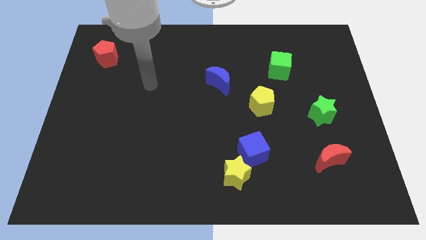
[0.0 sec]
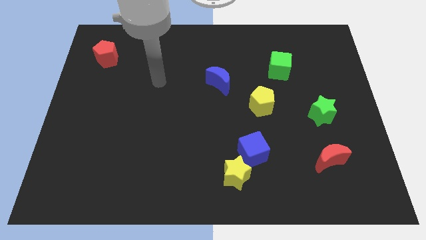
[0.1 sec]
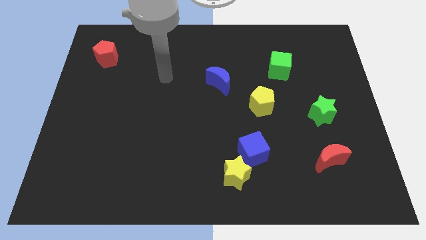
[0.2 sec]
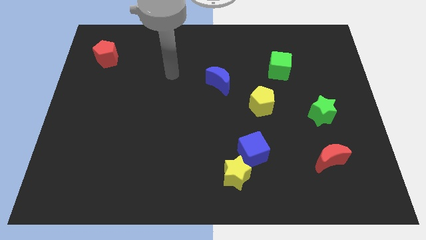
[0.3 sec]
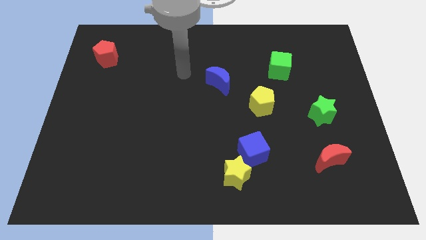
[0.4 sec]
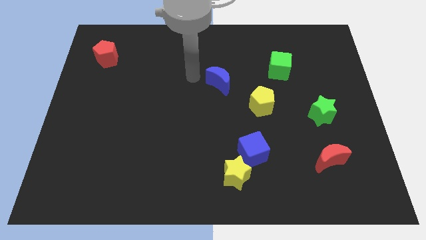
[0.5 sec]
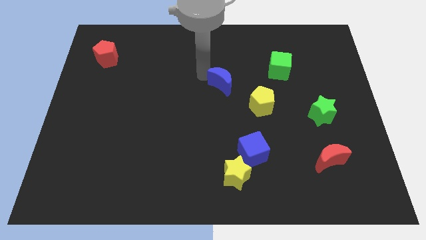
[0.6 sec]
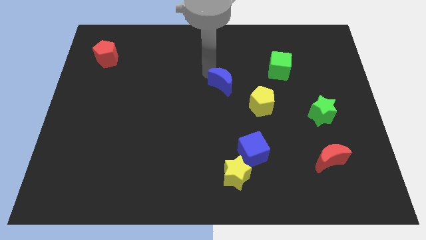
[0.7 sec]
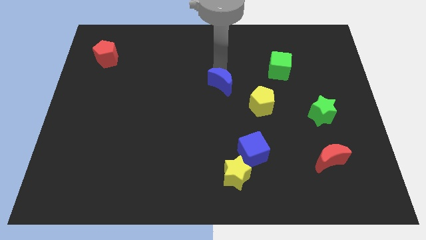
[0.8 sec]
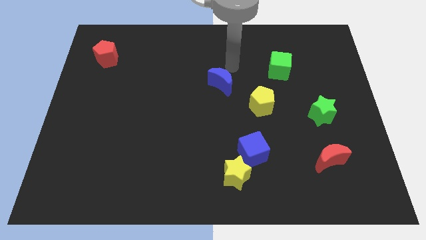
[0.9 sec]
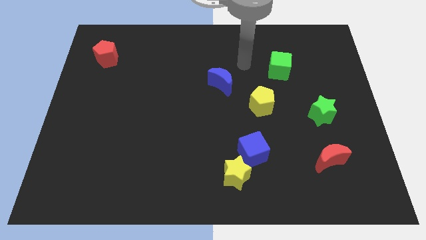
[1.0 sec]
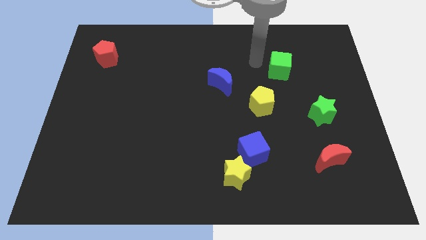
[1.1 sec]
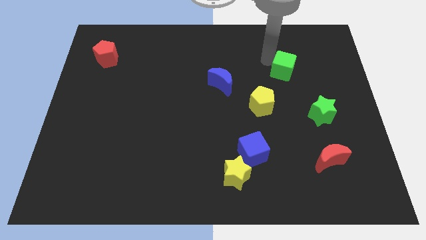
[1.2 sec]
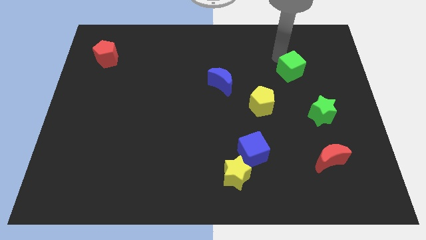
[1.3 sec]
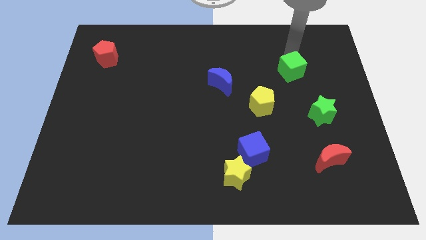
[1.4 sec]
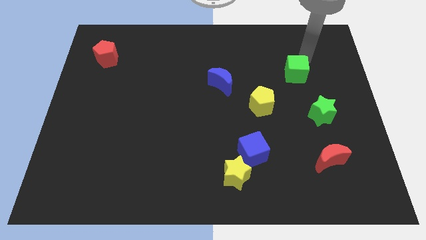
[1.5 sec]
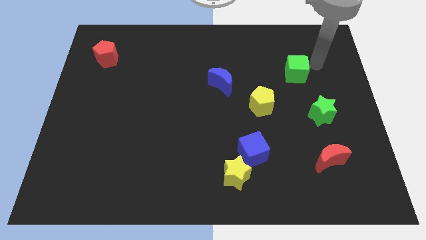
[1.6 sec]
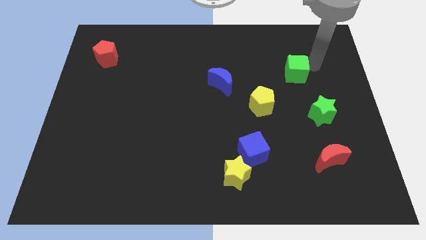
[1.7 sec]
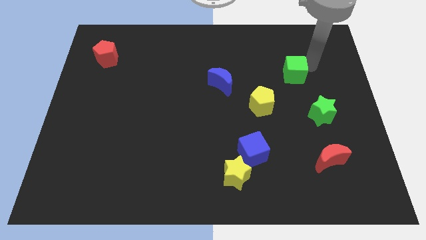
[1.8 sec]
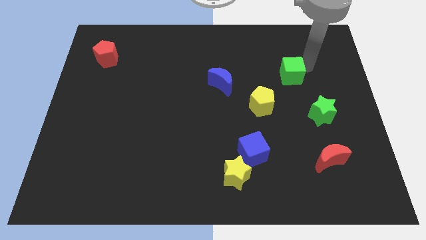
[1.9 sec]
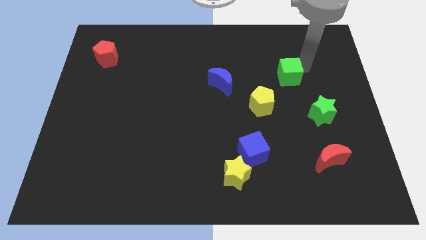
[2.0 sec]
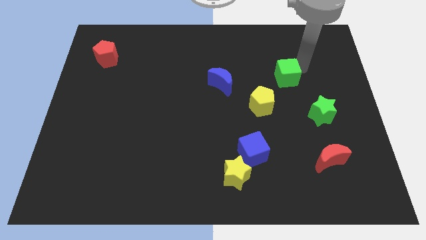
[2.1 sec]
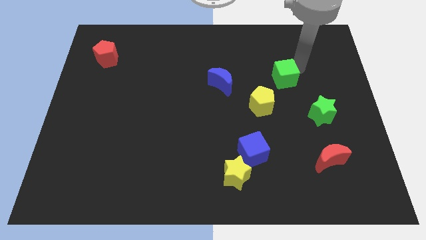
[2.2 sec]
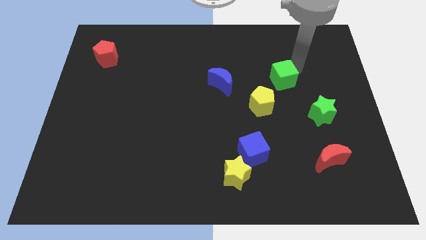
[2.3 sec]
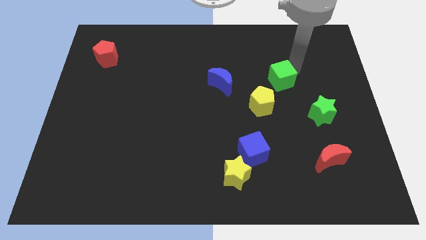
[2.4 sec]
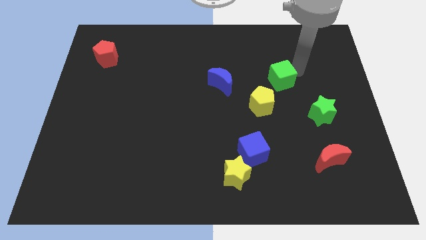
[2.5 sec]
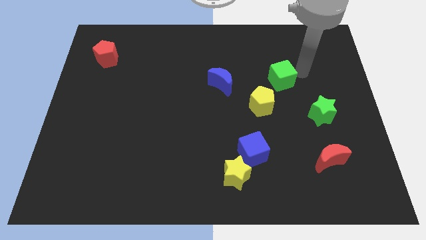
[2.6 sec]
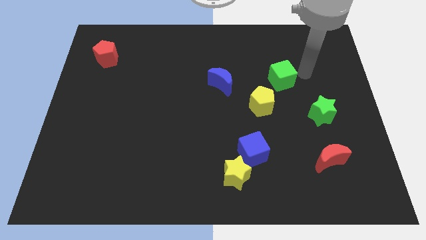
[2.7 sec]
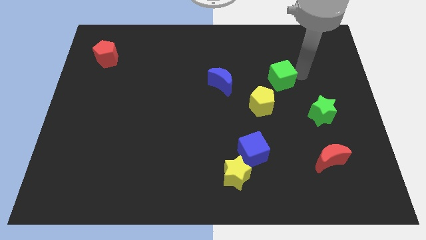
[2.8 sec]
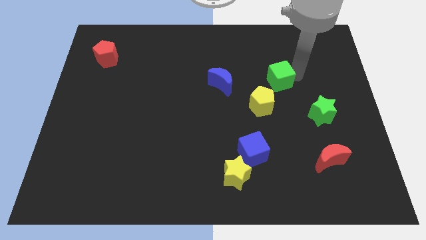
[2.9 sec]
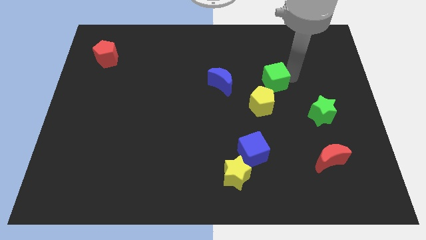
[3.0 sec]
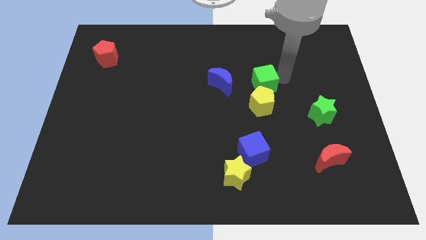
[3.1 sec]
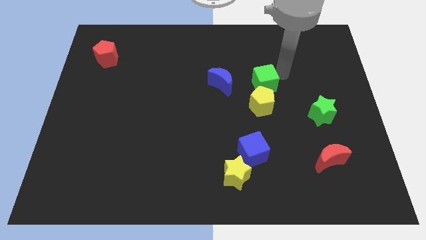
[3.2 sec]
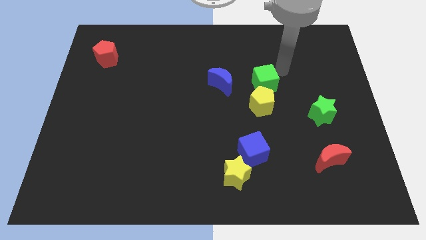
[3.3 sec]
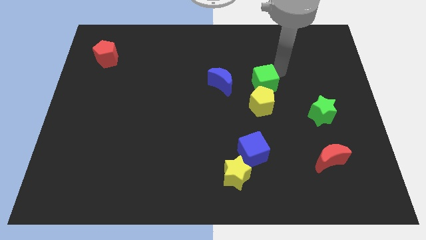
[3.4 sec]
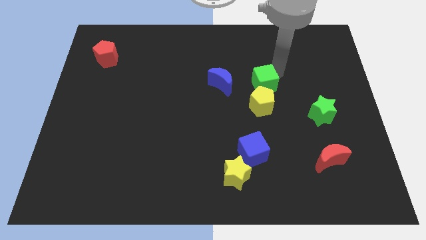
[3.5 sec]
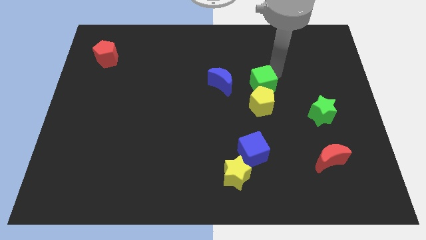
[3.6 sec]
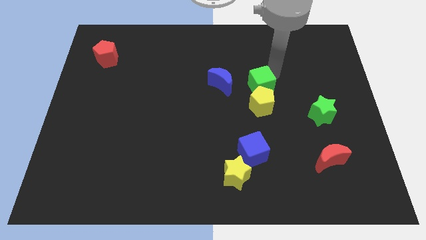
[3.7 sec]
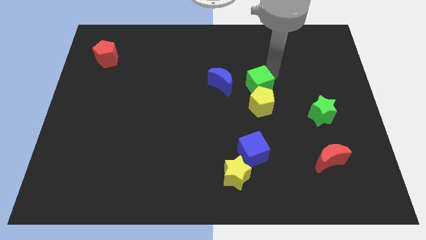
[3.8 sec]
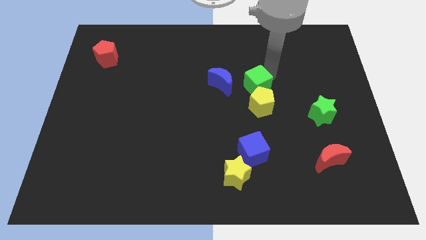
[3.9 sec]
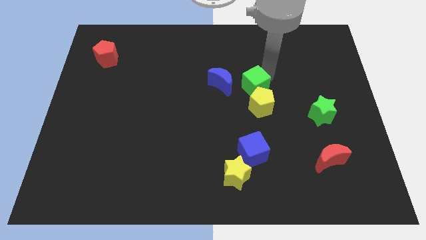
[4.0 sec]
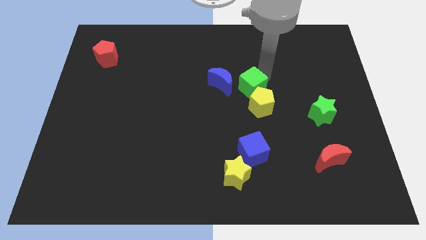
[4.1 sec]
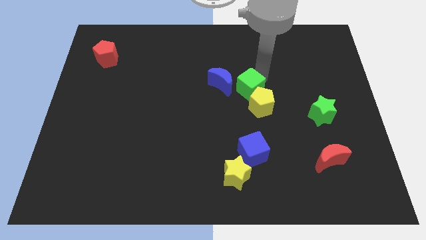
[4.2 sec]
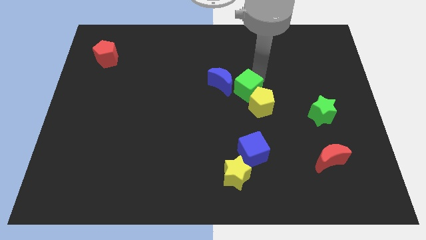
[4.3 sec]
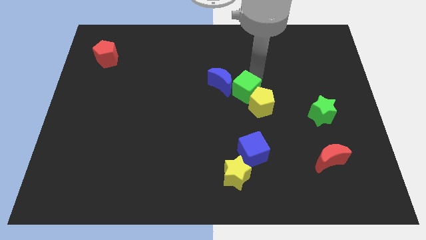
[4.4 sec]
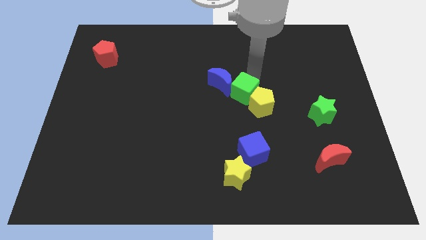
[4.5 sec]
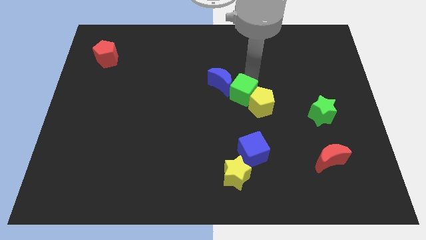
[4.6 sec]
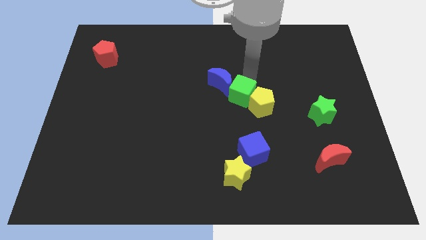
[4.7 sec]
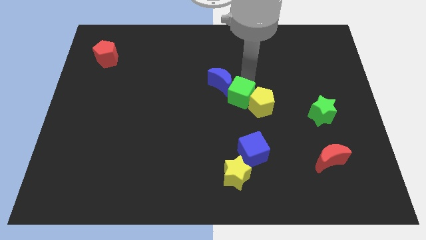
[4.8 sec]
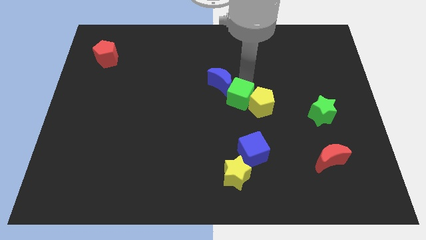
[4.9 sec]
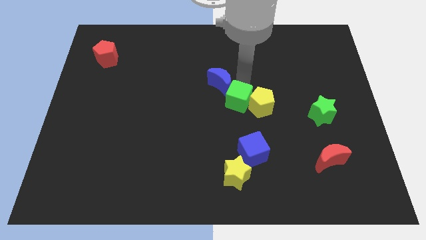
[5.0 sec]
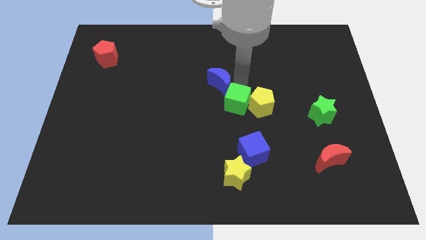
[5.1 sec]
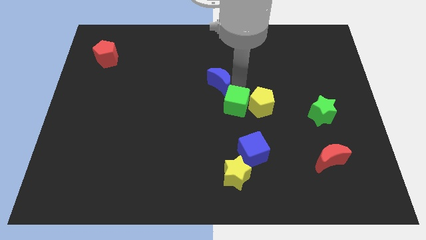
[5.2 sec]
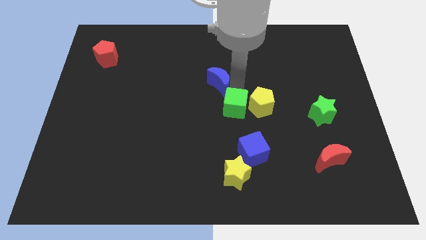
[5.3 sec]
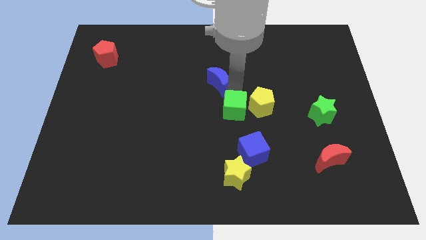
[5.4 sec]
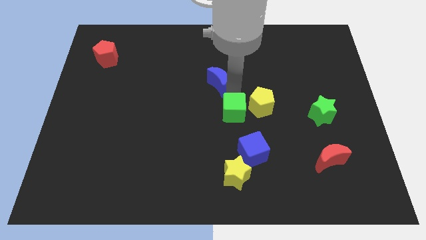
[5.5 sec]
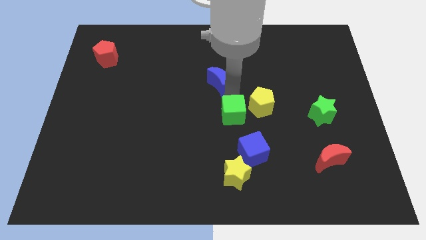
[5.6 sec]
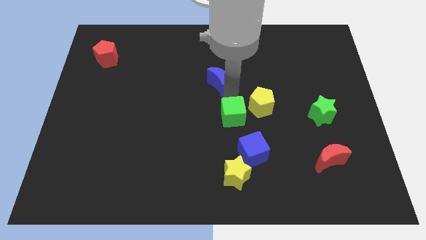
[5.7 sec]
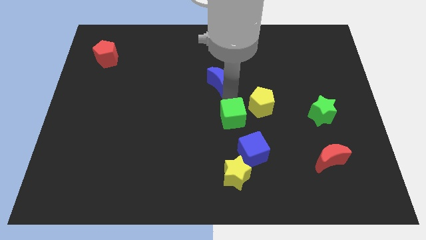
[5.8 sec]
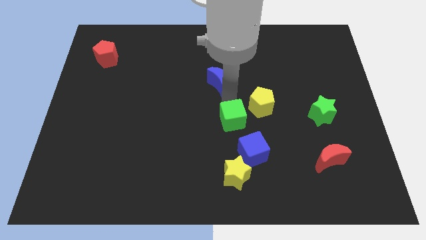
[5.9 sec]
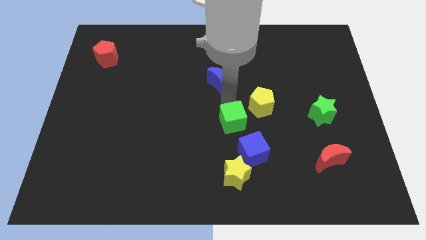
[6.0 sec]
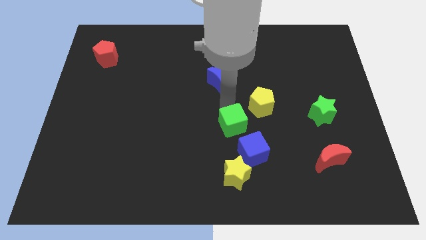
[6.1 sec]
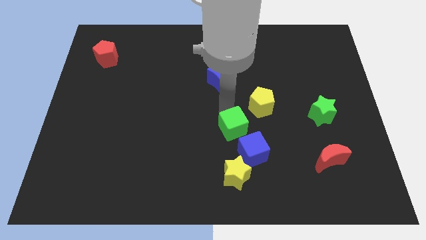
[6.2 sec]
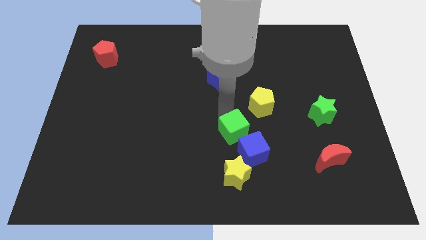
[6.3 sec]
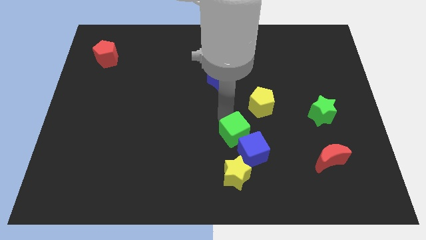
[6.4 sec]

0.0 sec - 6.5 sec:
move the green cube to the blue cube

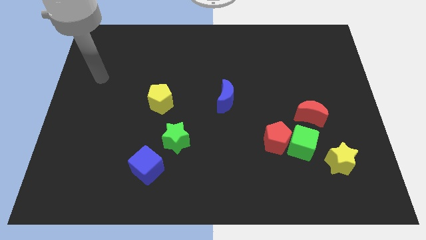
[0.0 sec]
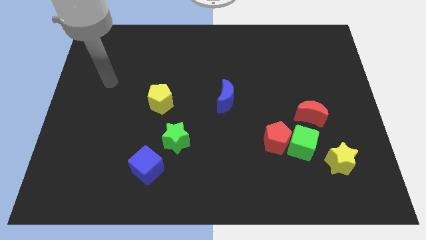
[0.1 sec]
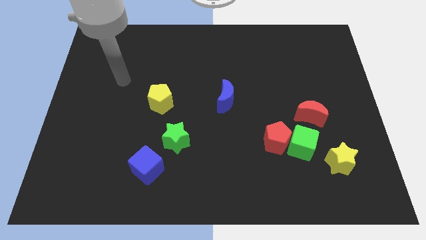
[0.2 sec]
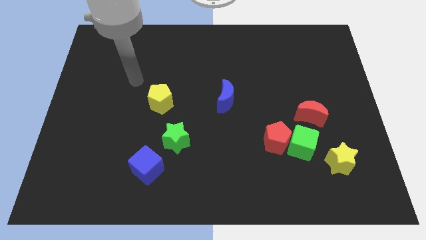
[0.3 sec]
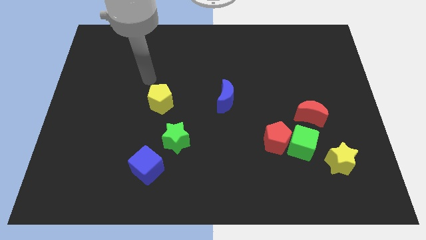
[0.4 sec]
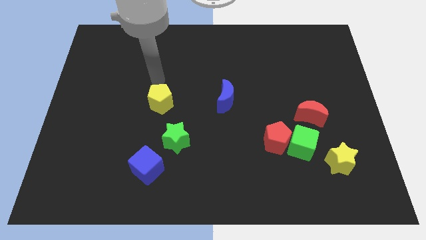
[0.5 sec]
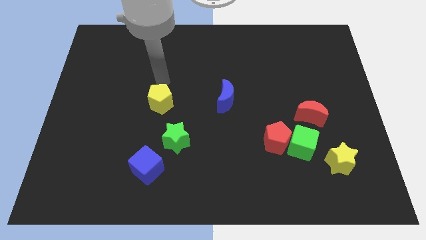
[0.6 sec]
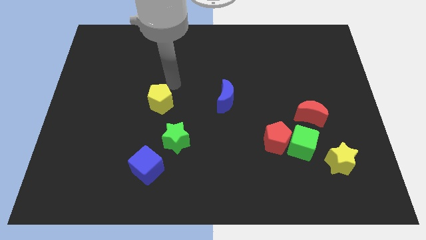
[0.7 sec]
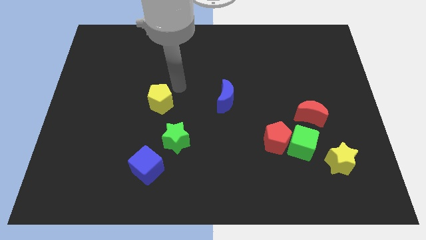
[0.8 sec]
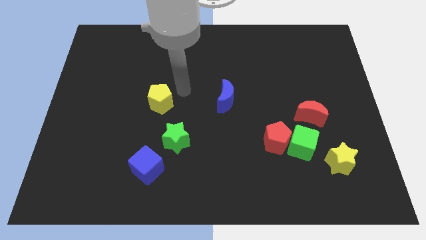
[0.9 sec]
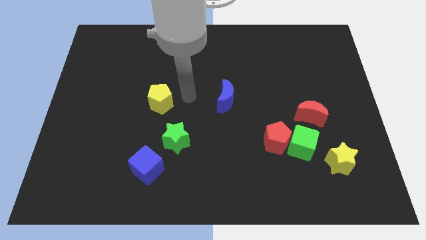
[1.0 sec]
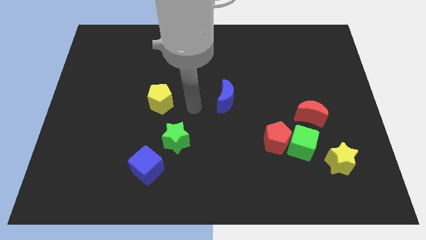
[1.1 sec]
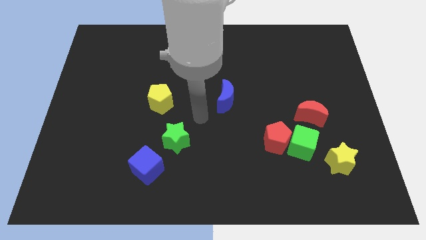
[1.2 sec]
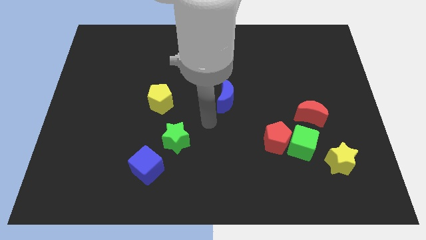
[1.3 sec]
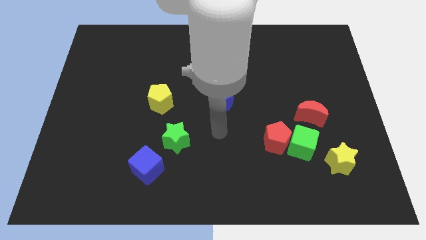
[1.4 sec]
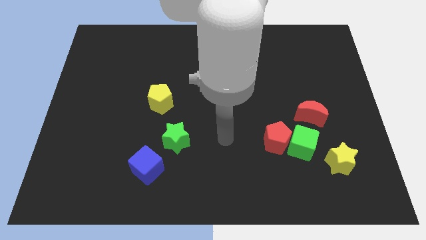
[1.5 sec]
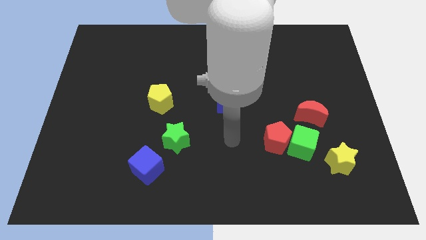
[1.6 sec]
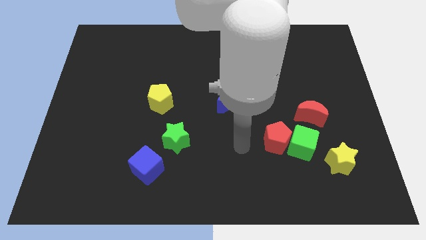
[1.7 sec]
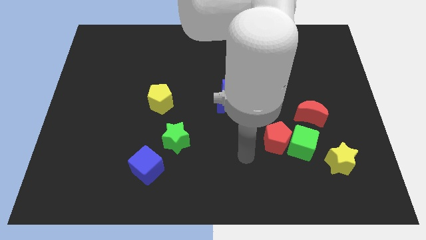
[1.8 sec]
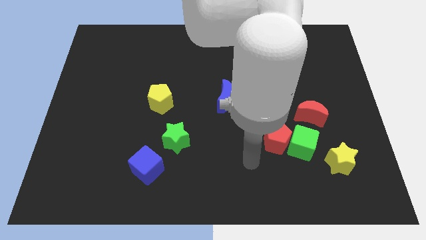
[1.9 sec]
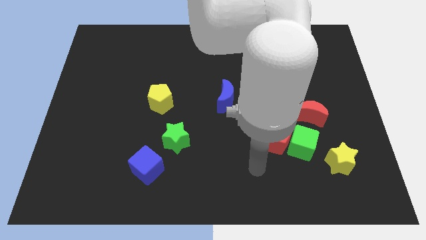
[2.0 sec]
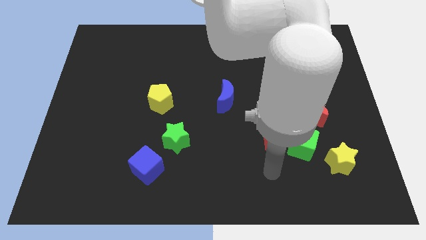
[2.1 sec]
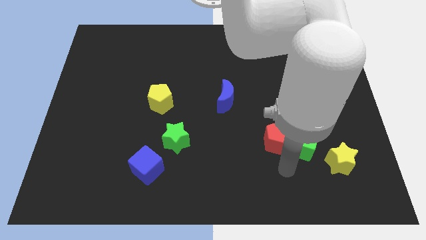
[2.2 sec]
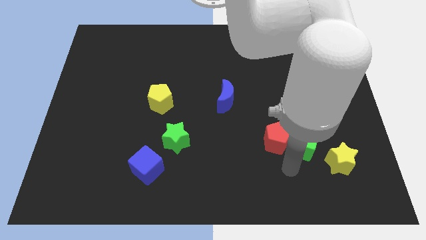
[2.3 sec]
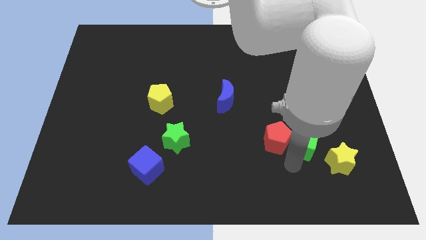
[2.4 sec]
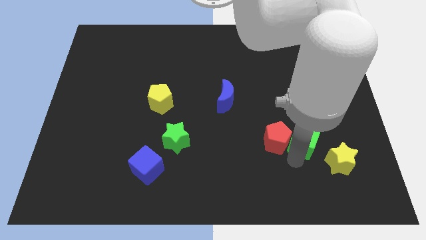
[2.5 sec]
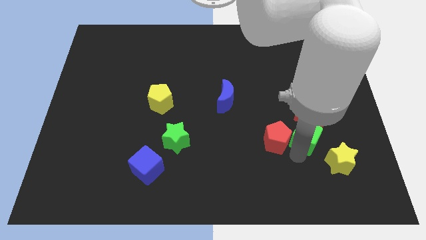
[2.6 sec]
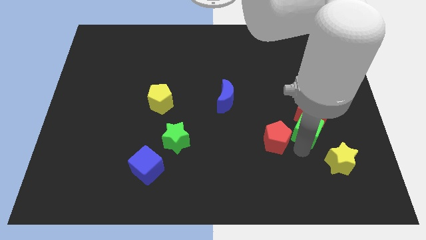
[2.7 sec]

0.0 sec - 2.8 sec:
slide the green cube towards the red moon
